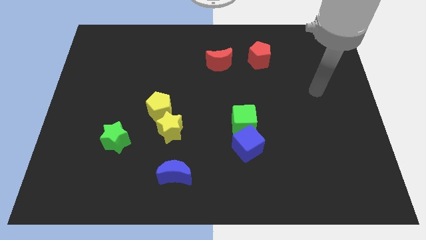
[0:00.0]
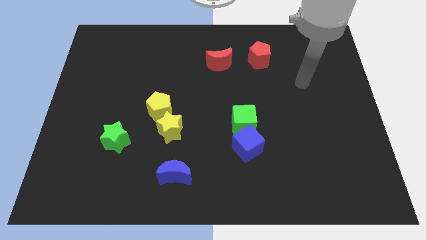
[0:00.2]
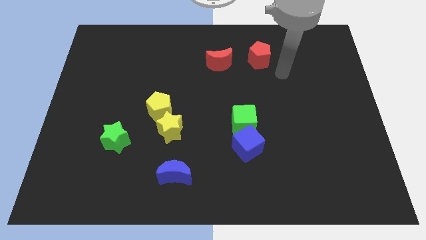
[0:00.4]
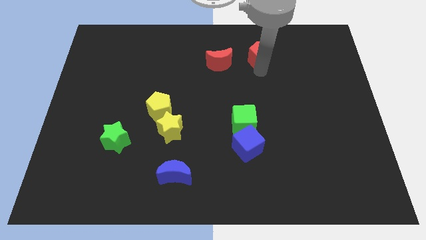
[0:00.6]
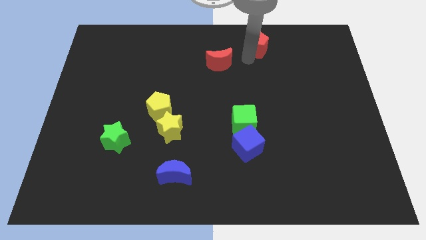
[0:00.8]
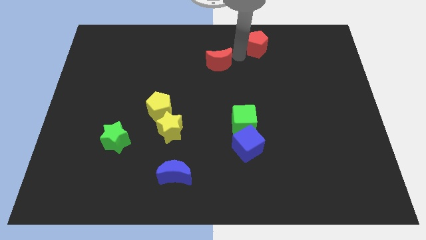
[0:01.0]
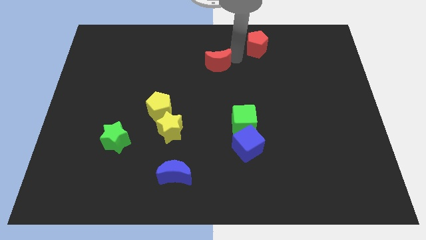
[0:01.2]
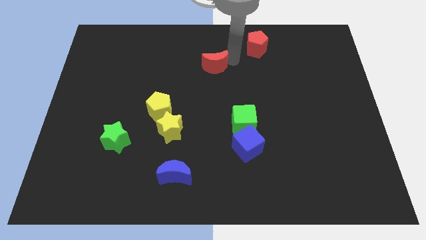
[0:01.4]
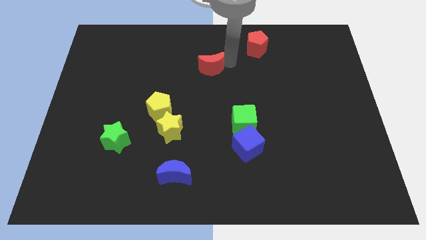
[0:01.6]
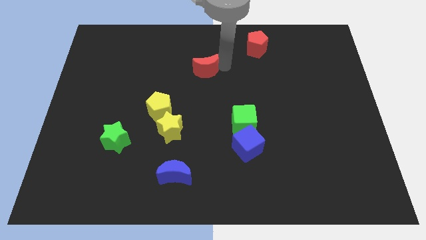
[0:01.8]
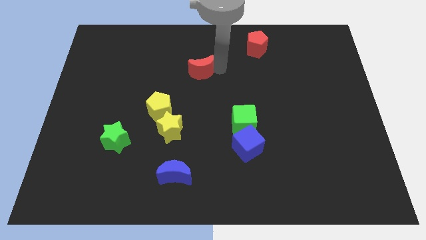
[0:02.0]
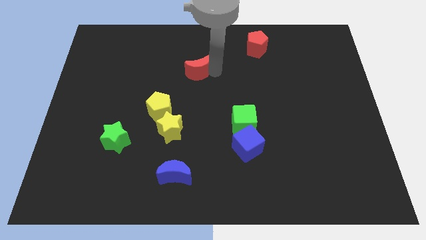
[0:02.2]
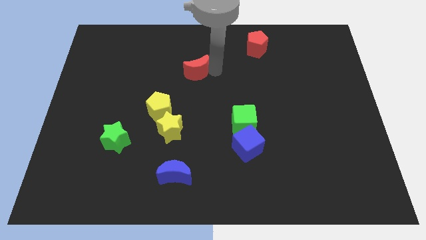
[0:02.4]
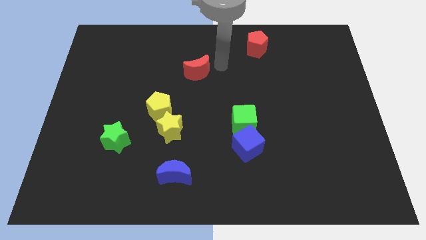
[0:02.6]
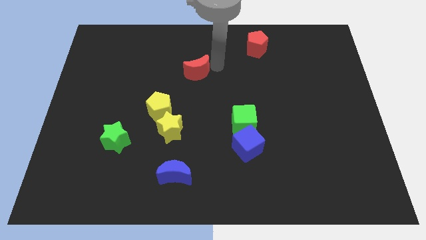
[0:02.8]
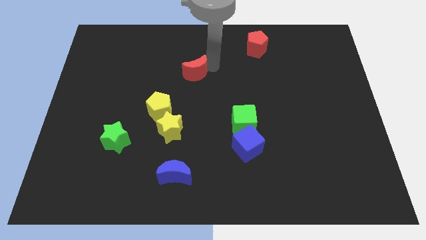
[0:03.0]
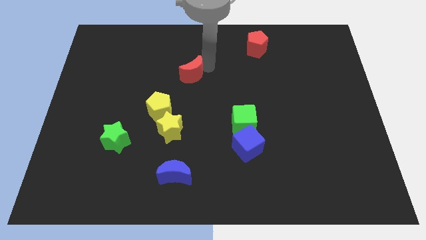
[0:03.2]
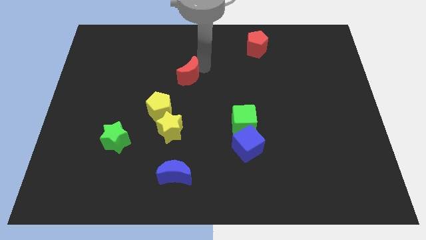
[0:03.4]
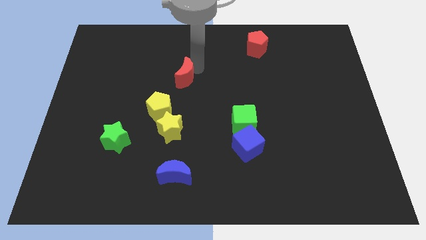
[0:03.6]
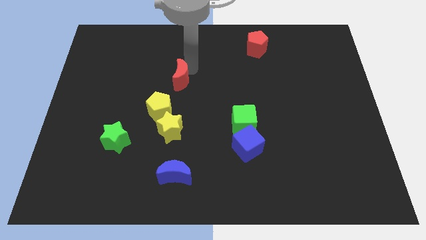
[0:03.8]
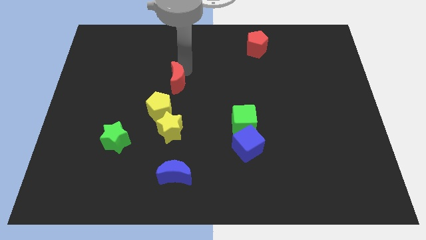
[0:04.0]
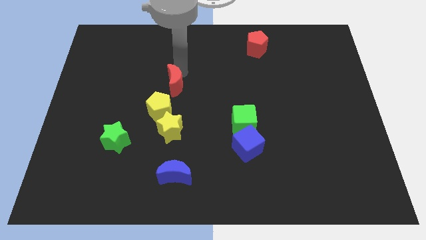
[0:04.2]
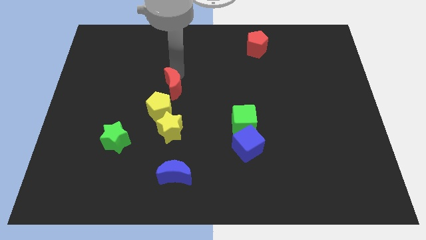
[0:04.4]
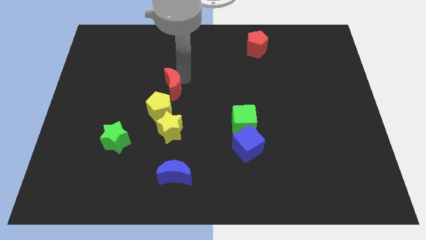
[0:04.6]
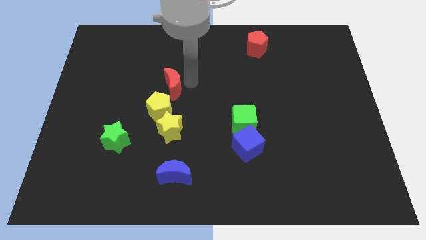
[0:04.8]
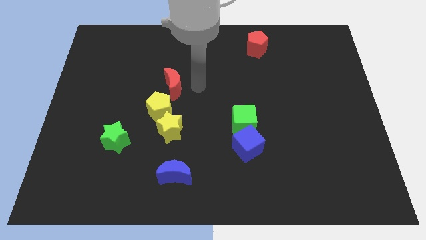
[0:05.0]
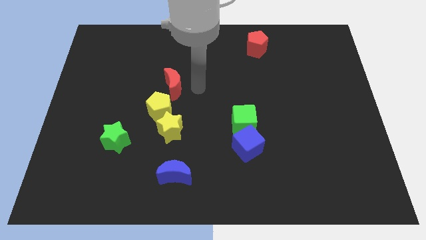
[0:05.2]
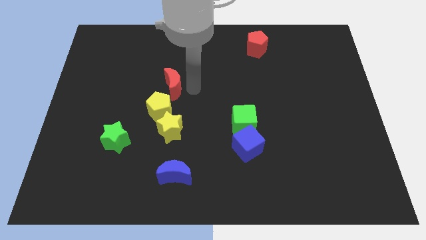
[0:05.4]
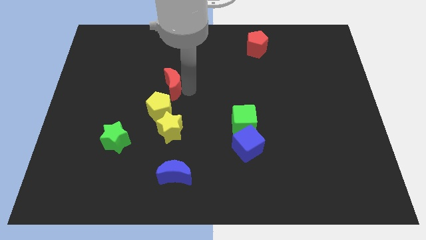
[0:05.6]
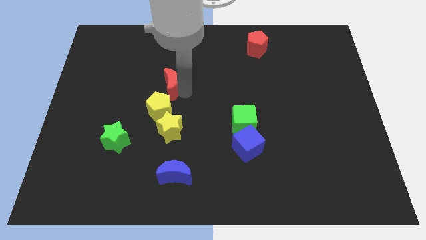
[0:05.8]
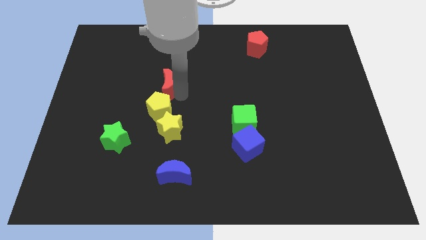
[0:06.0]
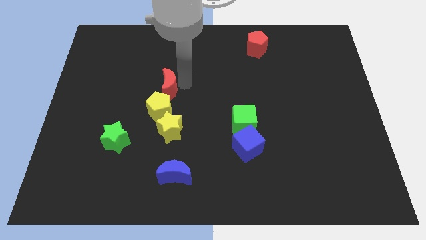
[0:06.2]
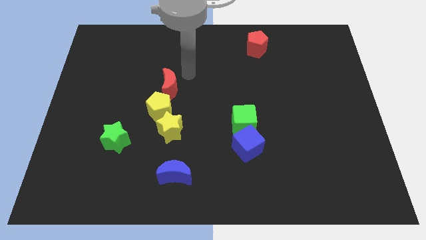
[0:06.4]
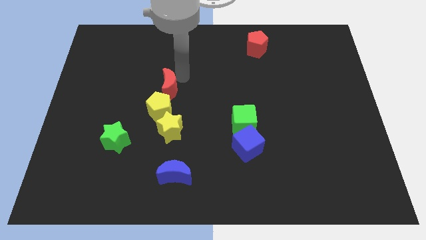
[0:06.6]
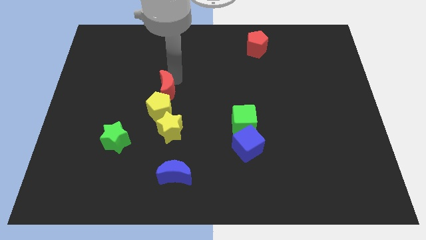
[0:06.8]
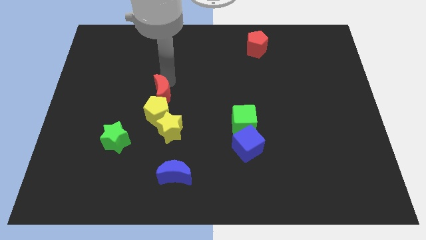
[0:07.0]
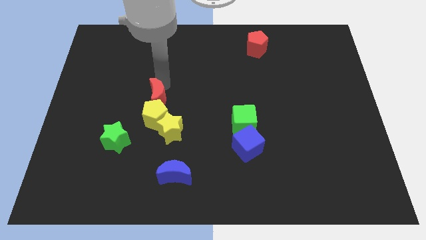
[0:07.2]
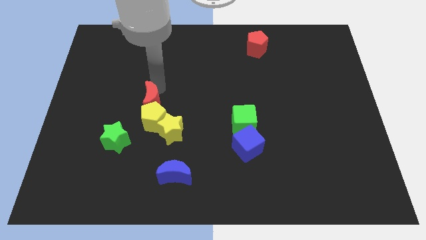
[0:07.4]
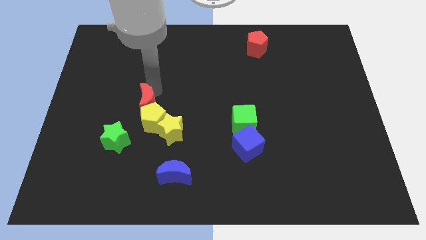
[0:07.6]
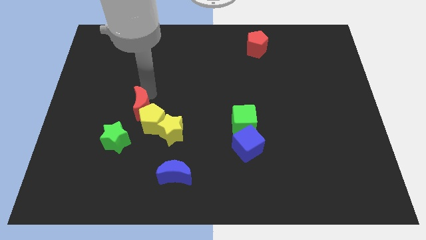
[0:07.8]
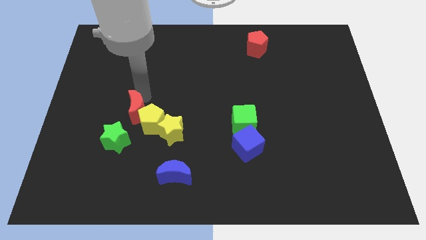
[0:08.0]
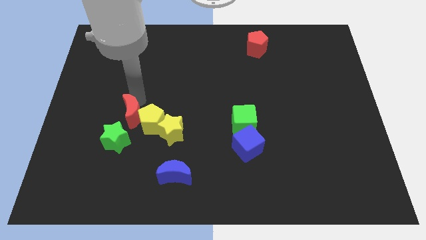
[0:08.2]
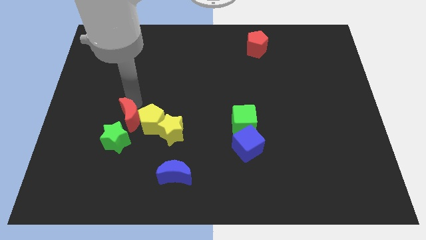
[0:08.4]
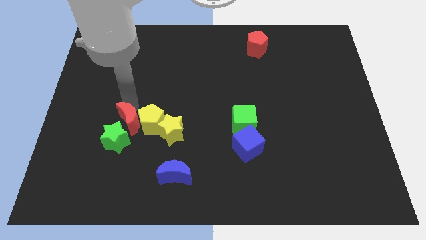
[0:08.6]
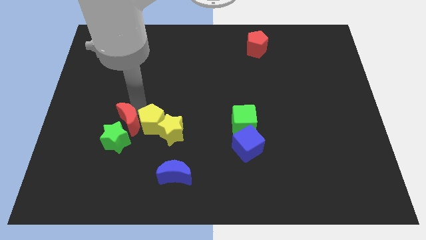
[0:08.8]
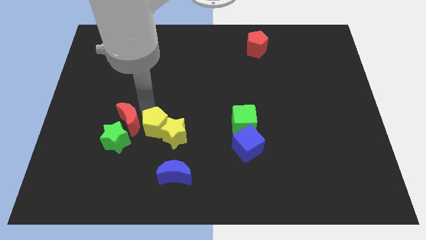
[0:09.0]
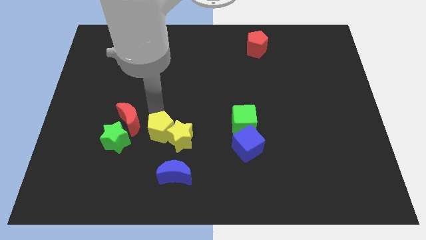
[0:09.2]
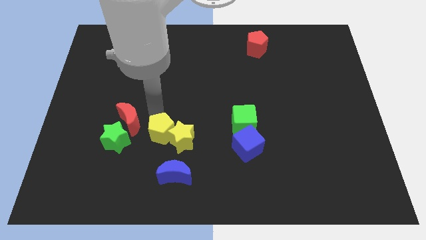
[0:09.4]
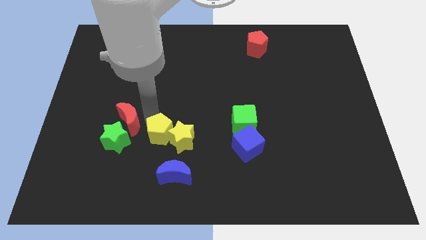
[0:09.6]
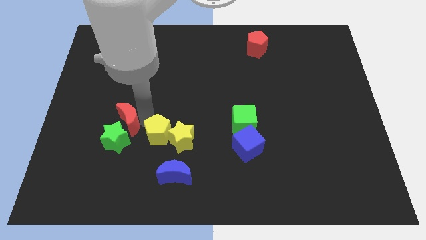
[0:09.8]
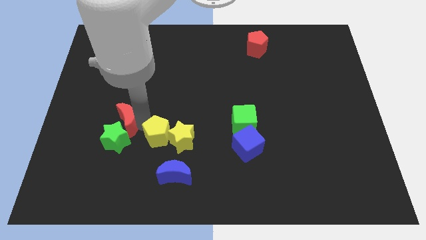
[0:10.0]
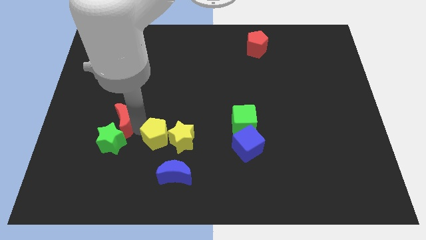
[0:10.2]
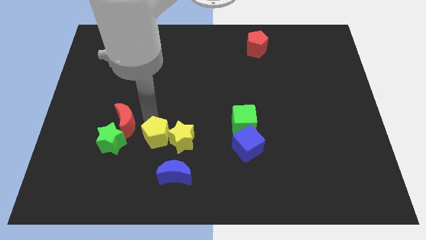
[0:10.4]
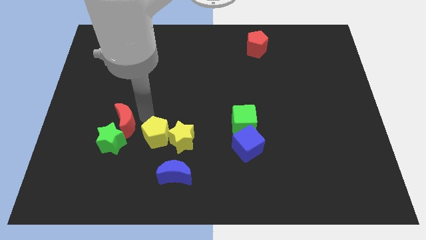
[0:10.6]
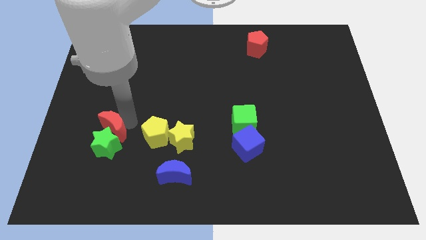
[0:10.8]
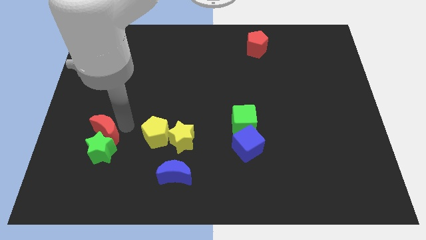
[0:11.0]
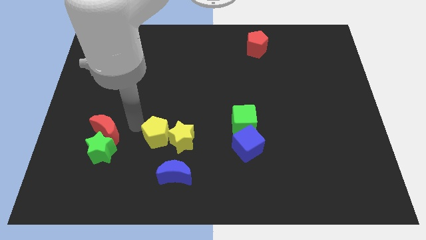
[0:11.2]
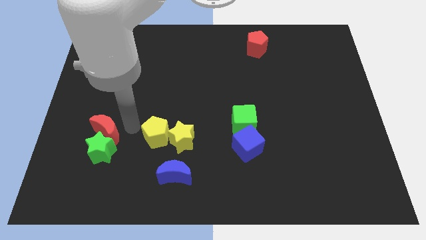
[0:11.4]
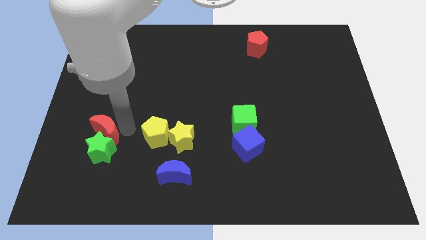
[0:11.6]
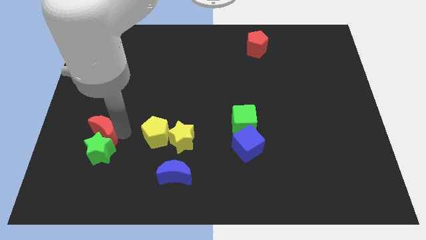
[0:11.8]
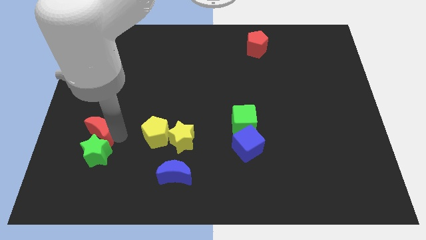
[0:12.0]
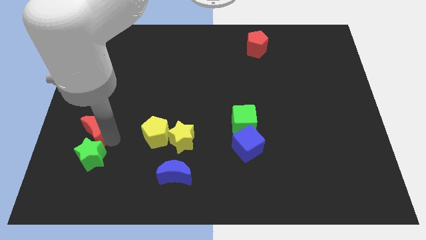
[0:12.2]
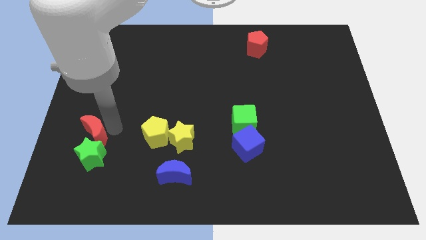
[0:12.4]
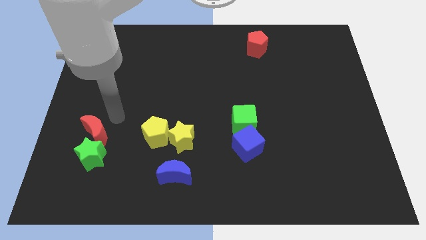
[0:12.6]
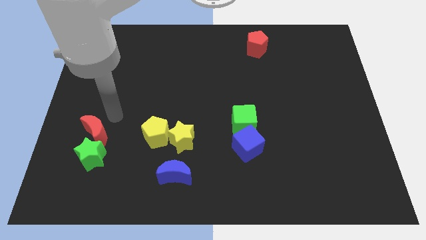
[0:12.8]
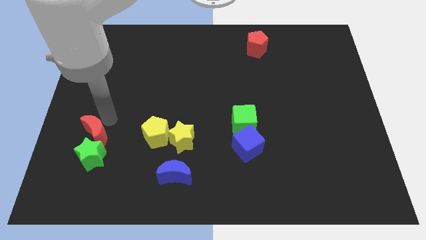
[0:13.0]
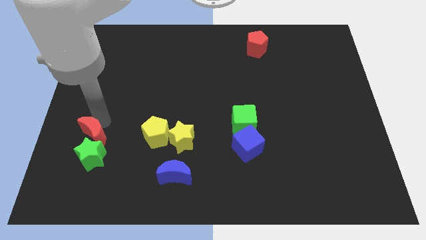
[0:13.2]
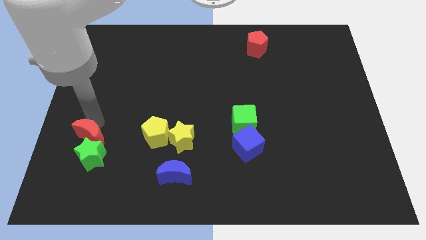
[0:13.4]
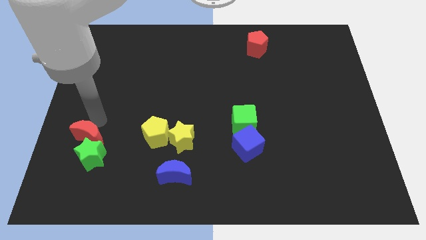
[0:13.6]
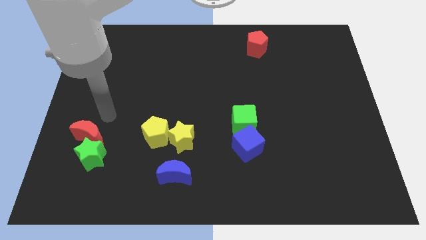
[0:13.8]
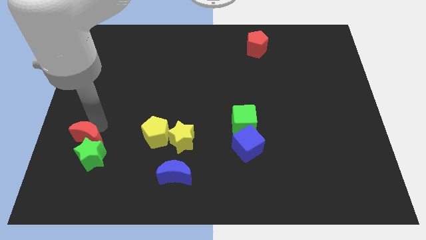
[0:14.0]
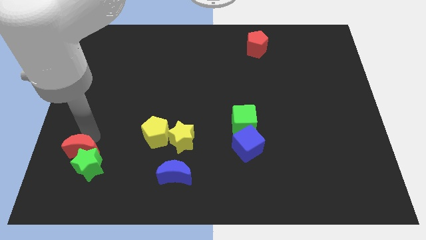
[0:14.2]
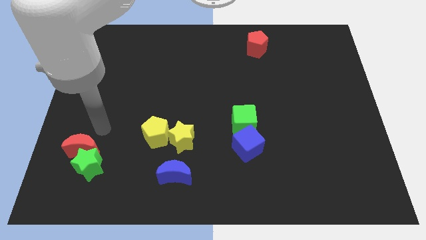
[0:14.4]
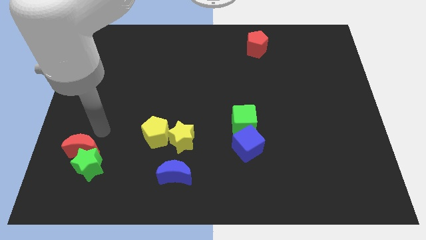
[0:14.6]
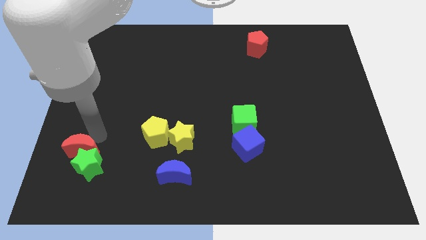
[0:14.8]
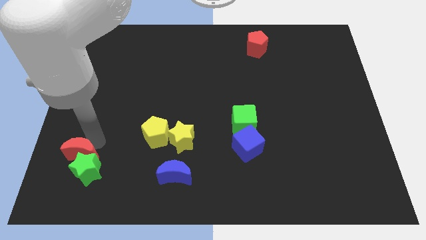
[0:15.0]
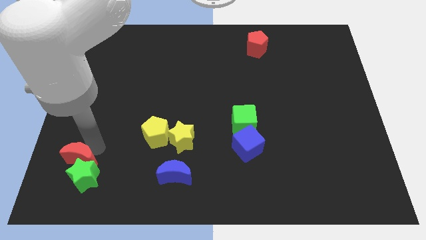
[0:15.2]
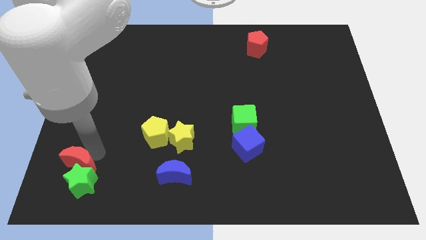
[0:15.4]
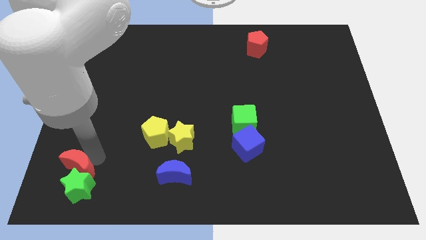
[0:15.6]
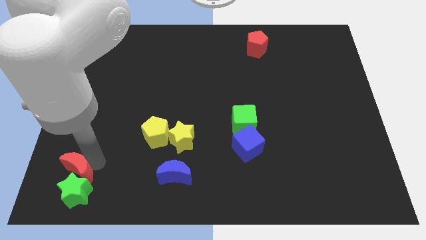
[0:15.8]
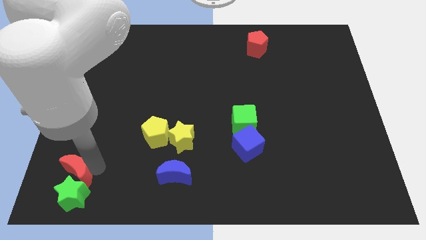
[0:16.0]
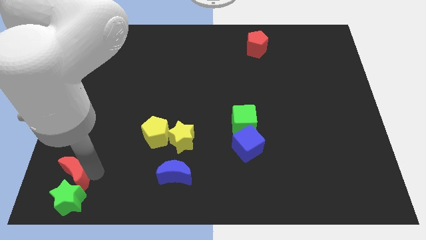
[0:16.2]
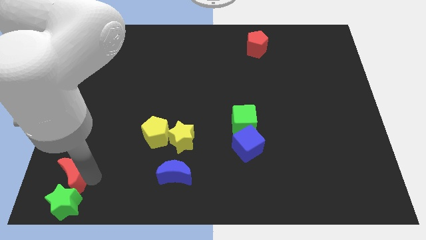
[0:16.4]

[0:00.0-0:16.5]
push the red moon to the bottom left of the board
